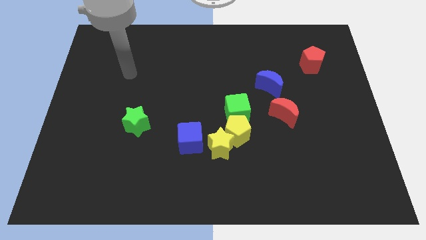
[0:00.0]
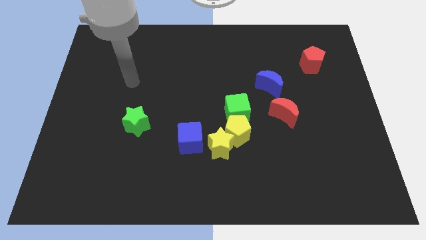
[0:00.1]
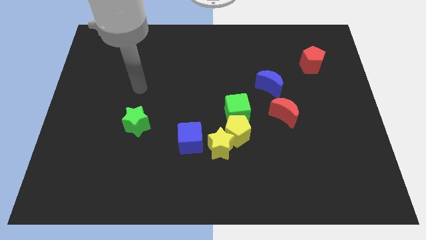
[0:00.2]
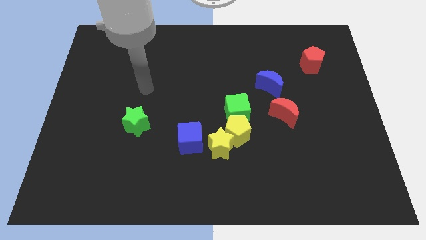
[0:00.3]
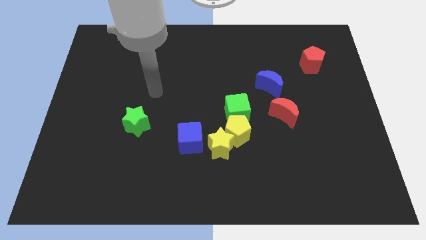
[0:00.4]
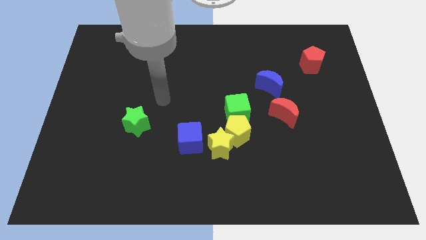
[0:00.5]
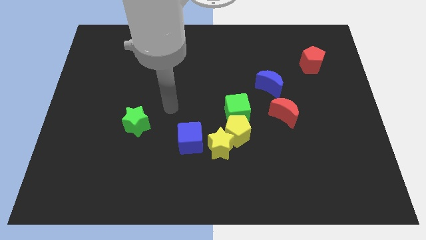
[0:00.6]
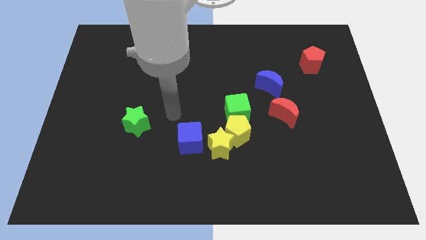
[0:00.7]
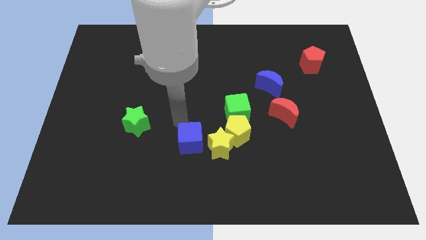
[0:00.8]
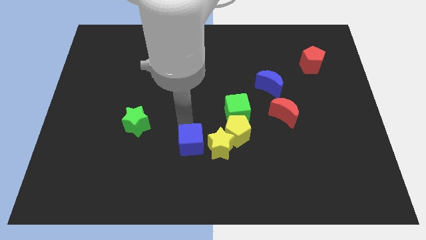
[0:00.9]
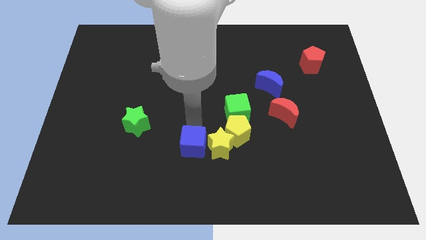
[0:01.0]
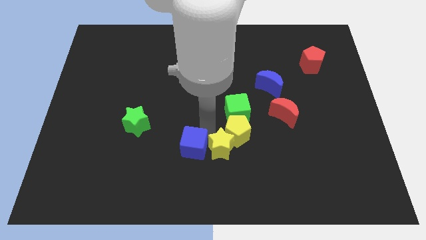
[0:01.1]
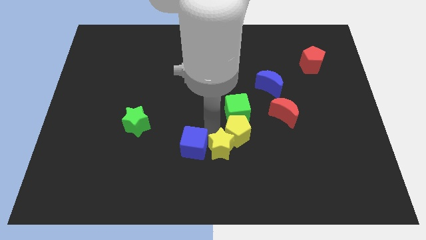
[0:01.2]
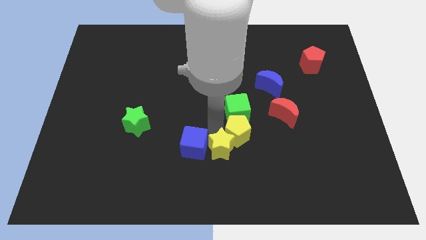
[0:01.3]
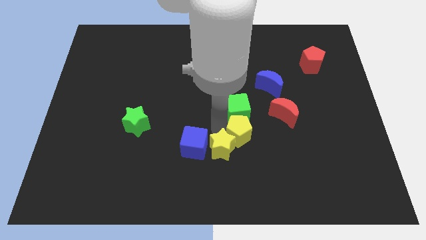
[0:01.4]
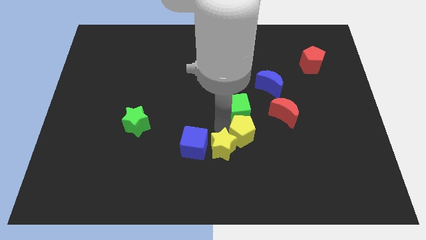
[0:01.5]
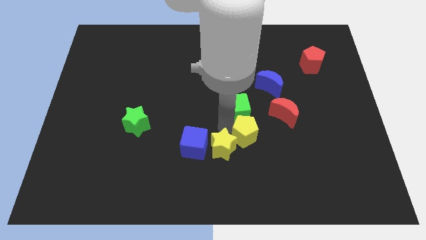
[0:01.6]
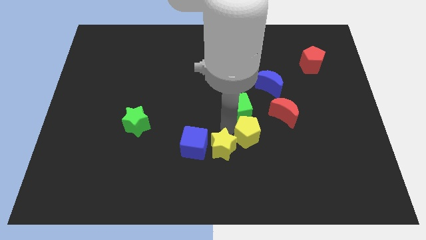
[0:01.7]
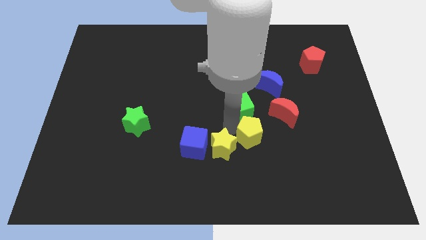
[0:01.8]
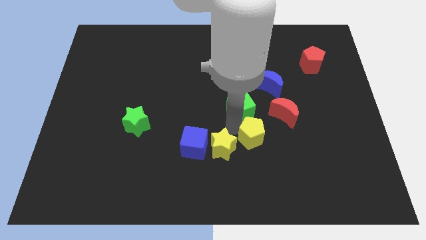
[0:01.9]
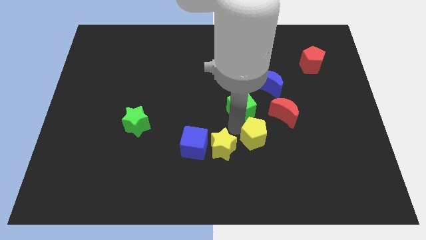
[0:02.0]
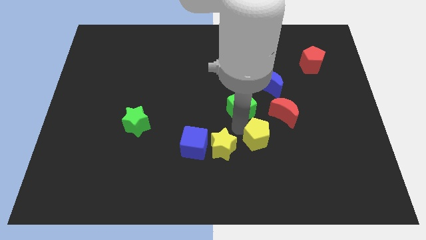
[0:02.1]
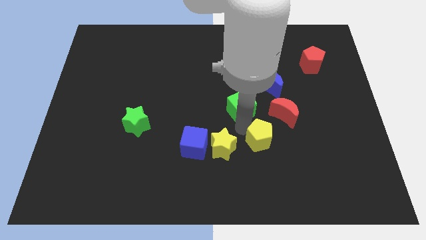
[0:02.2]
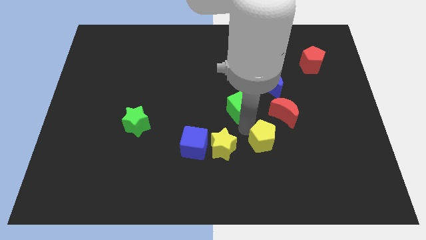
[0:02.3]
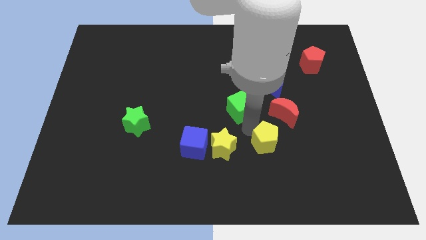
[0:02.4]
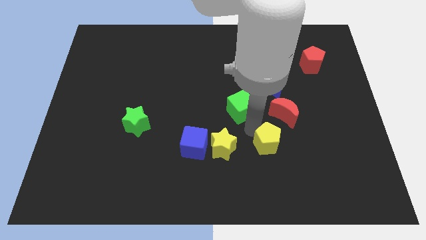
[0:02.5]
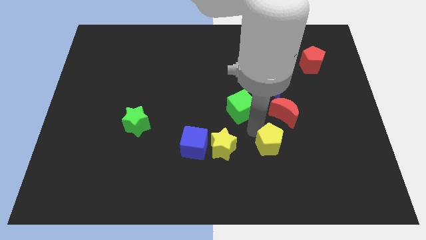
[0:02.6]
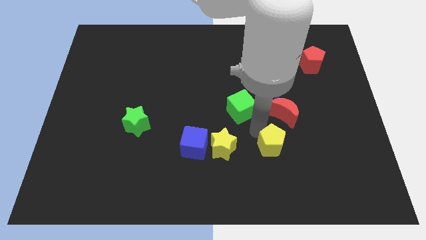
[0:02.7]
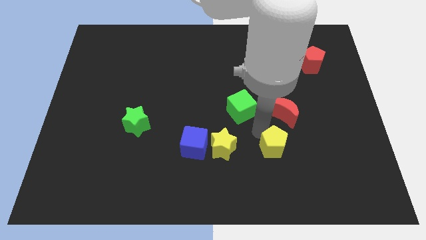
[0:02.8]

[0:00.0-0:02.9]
move the yellow pentagon away from the yellow star and green cube

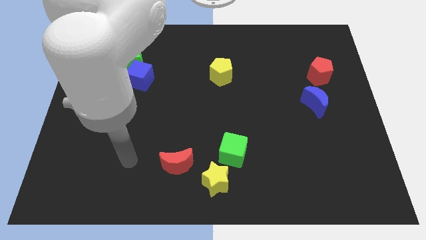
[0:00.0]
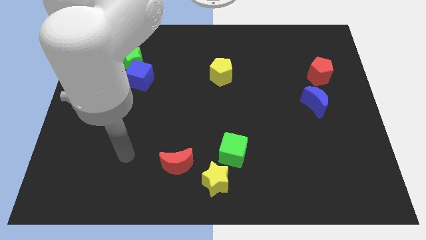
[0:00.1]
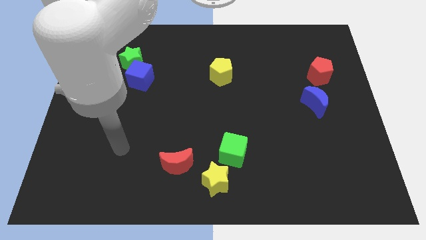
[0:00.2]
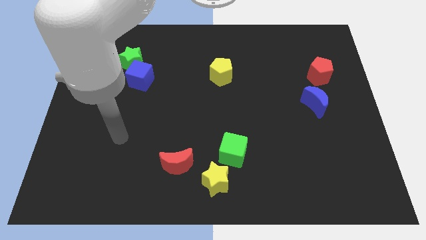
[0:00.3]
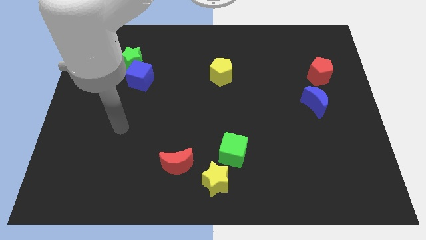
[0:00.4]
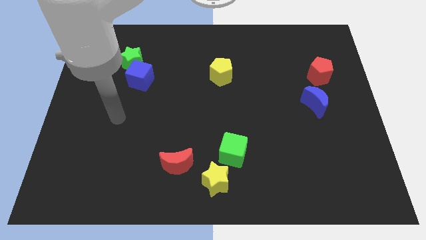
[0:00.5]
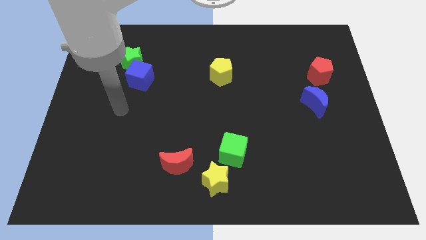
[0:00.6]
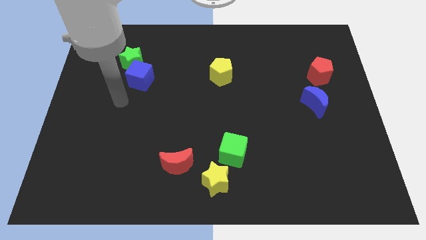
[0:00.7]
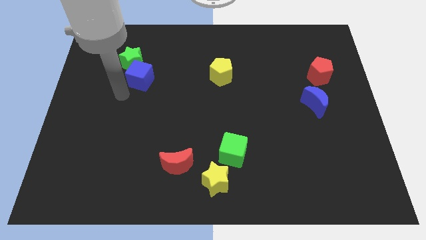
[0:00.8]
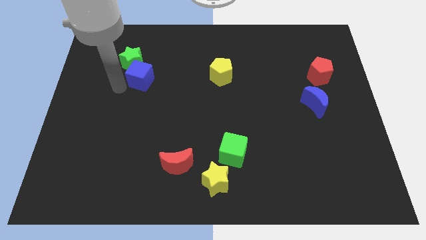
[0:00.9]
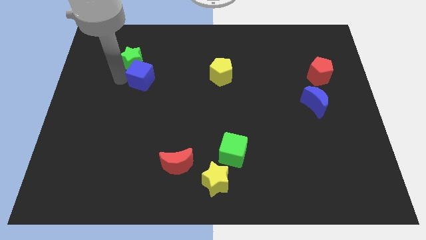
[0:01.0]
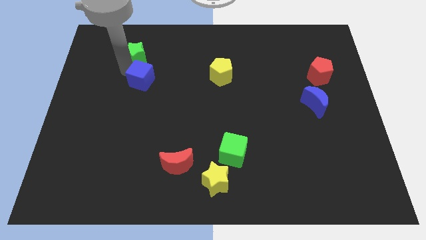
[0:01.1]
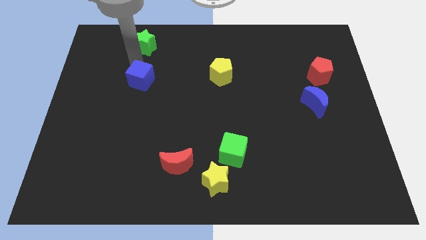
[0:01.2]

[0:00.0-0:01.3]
pull the blue cube apart from the green star

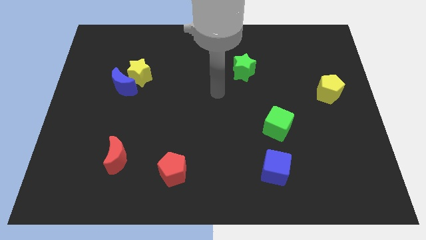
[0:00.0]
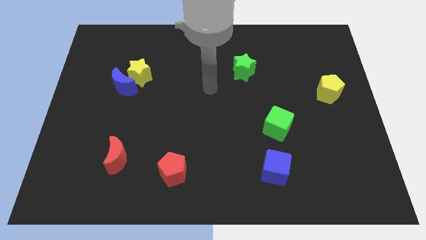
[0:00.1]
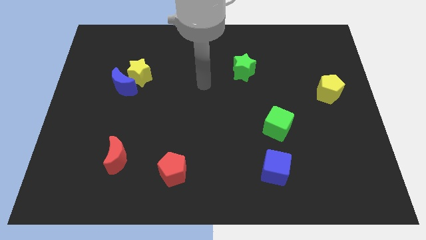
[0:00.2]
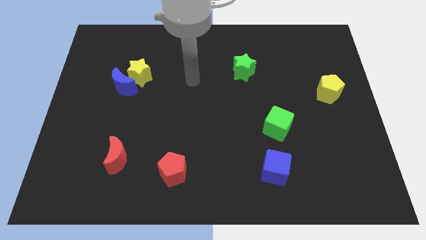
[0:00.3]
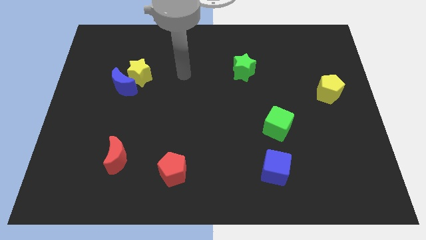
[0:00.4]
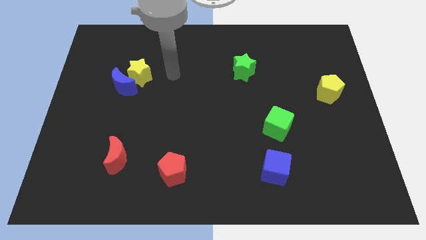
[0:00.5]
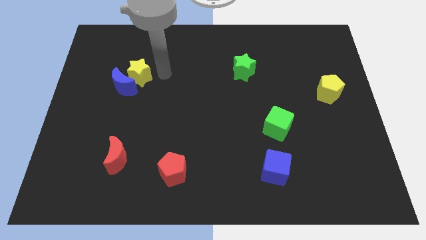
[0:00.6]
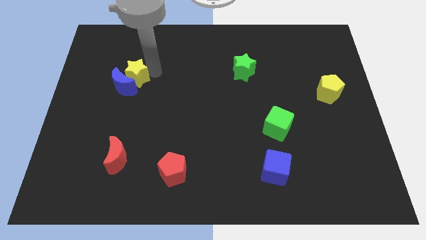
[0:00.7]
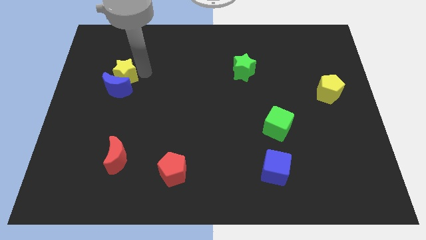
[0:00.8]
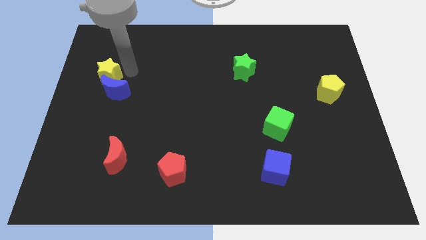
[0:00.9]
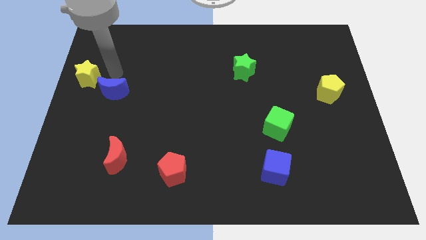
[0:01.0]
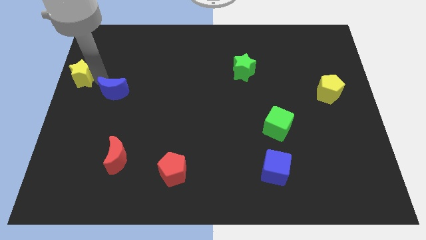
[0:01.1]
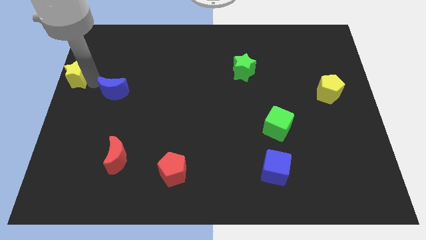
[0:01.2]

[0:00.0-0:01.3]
move the blue moon away from the yellow star

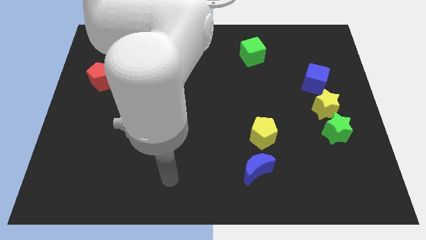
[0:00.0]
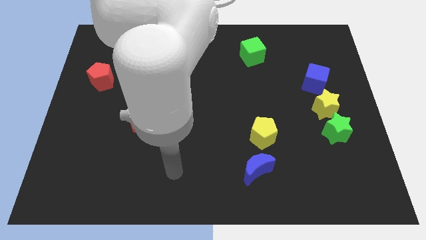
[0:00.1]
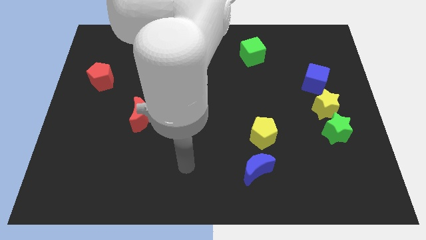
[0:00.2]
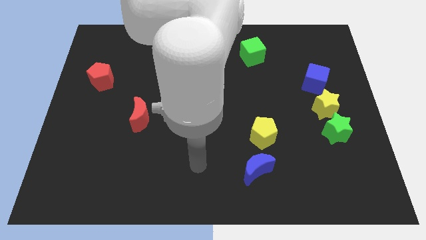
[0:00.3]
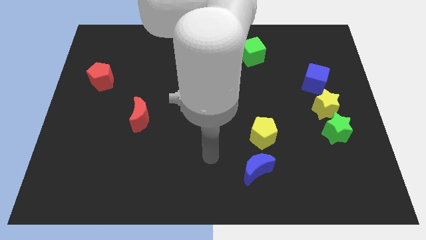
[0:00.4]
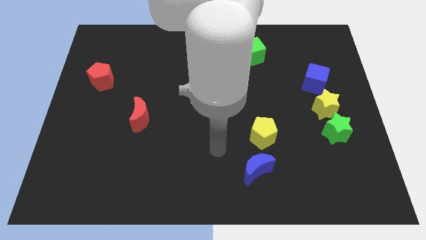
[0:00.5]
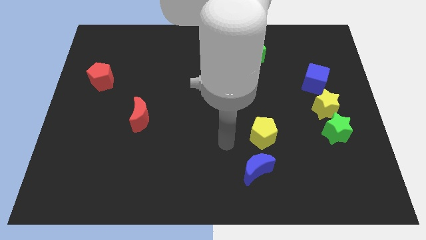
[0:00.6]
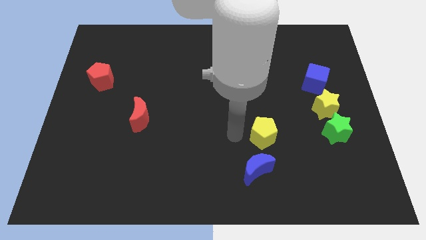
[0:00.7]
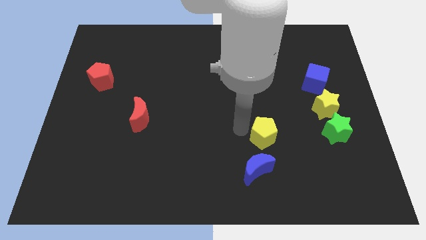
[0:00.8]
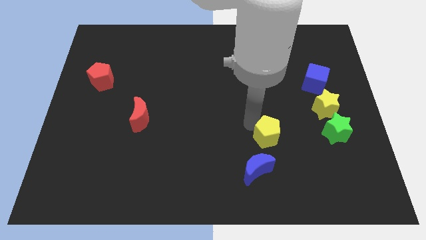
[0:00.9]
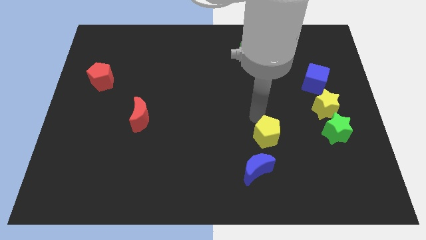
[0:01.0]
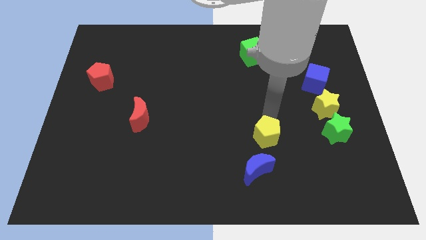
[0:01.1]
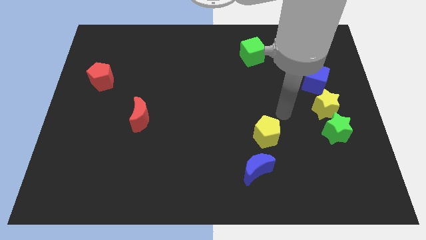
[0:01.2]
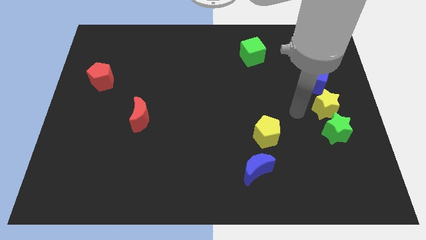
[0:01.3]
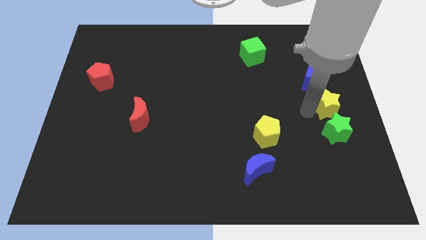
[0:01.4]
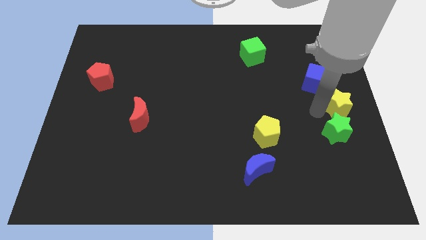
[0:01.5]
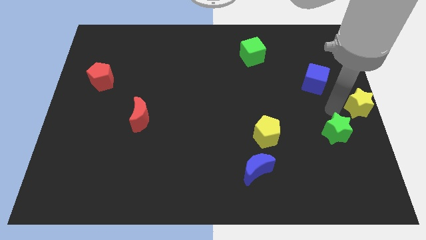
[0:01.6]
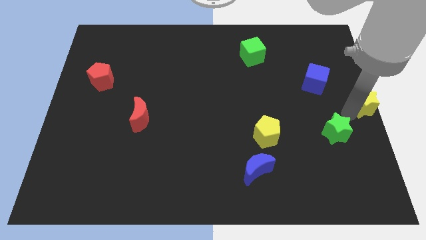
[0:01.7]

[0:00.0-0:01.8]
move the green star away from the yellow star

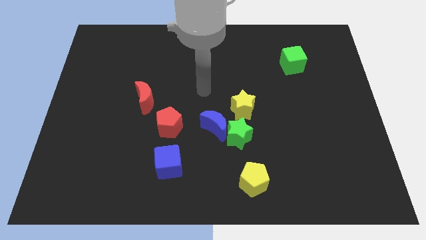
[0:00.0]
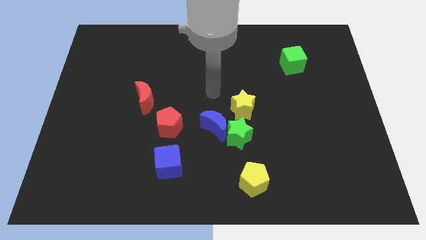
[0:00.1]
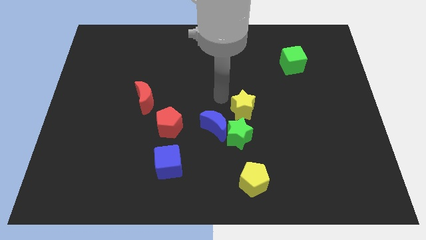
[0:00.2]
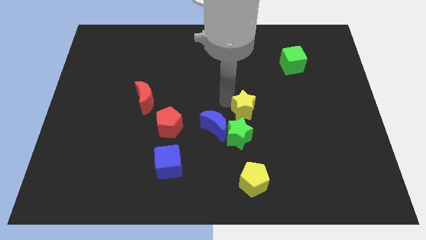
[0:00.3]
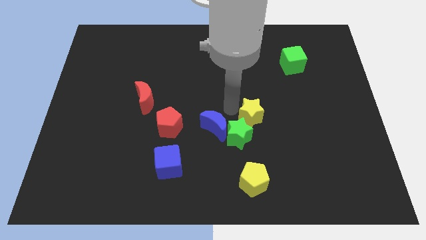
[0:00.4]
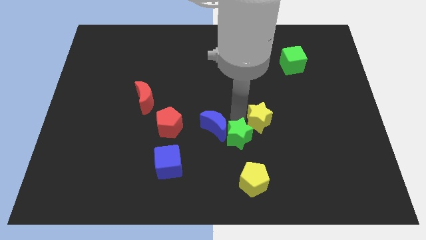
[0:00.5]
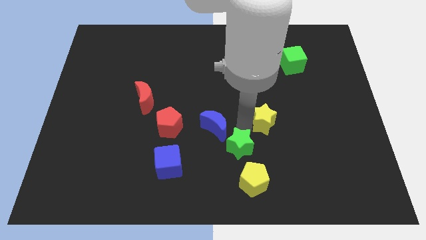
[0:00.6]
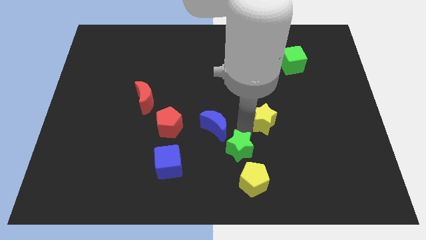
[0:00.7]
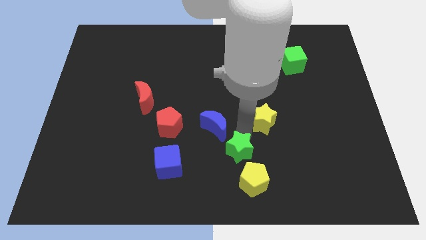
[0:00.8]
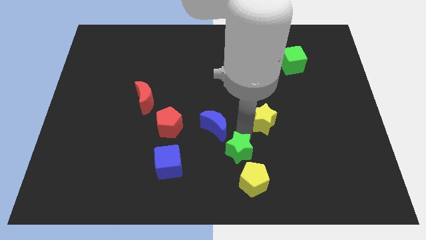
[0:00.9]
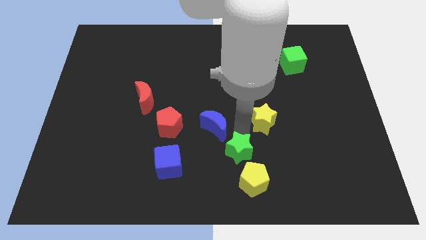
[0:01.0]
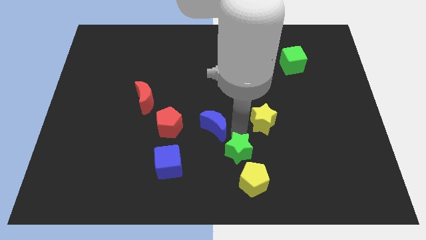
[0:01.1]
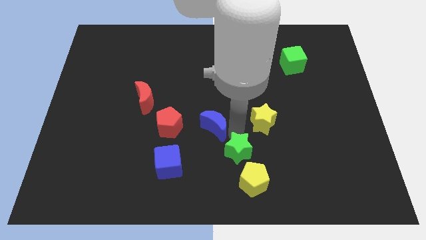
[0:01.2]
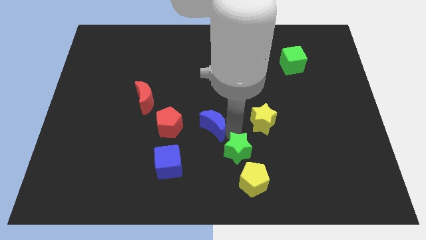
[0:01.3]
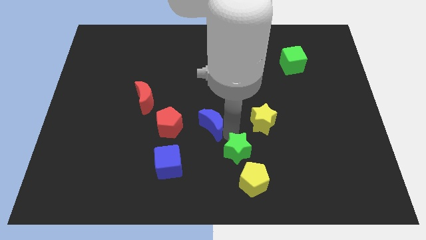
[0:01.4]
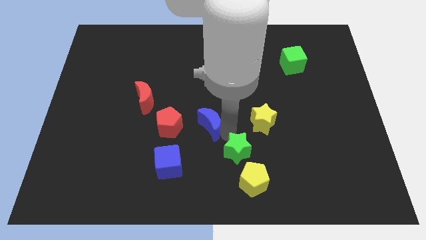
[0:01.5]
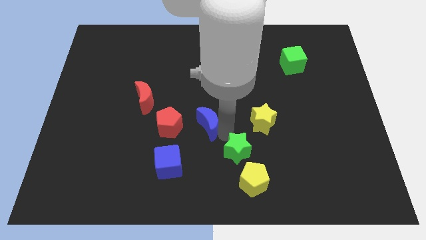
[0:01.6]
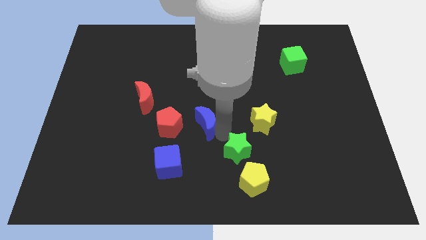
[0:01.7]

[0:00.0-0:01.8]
separate the blue moon from the green star and yellow star

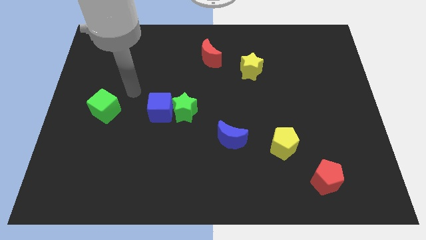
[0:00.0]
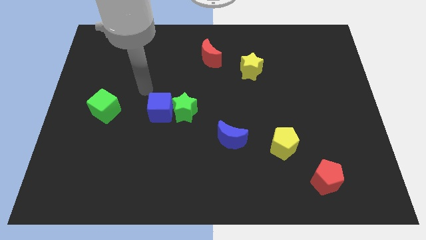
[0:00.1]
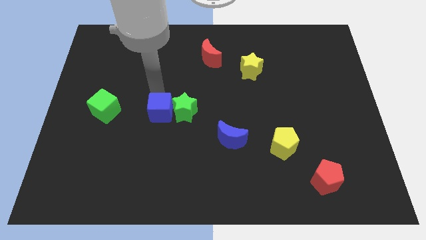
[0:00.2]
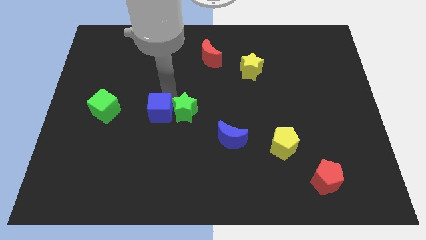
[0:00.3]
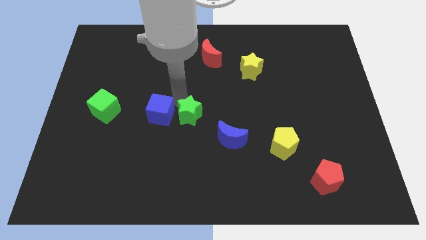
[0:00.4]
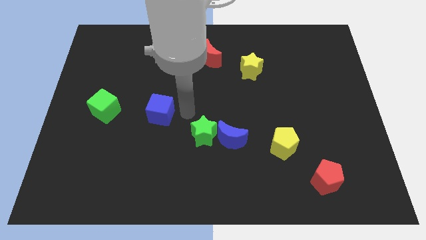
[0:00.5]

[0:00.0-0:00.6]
move the blue cube away from the green star
